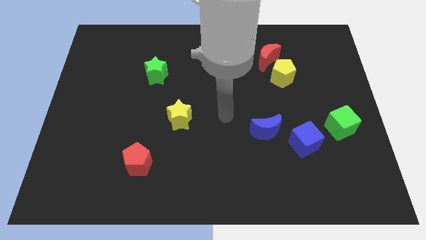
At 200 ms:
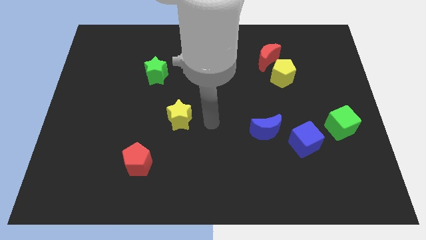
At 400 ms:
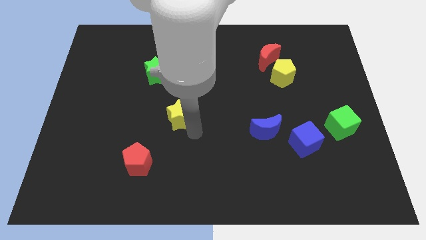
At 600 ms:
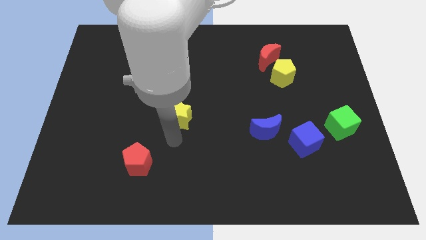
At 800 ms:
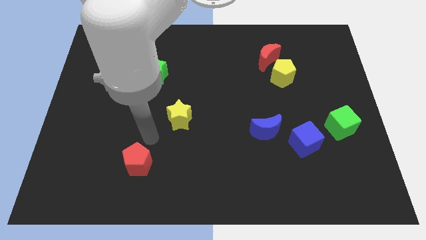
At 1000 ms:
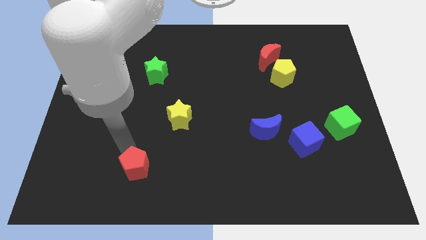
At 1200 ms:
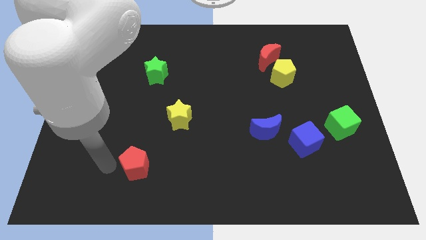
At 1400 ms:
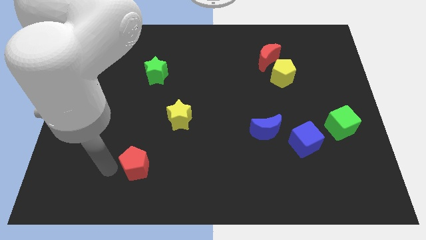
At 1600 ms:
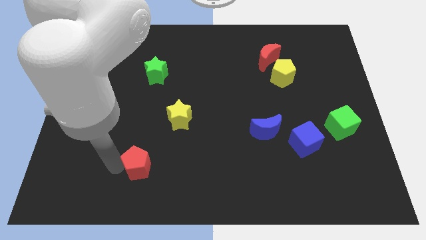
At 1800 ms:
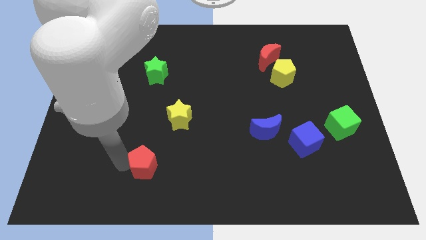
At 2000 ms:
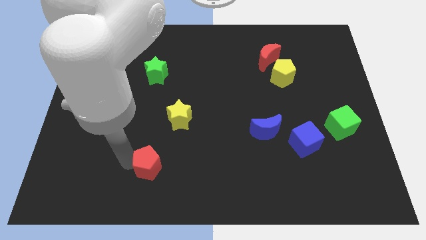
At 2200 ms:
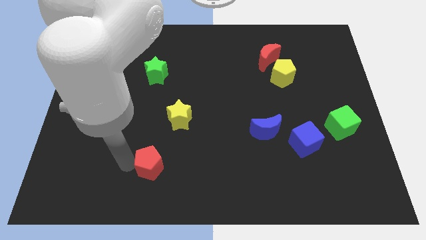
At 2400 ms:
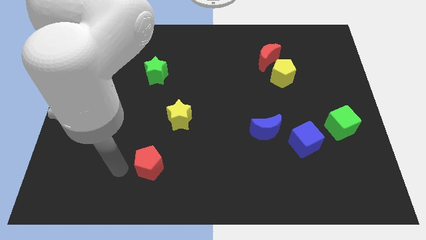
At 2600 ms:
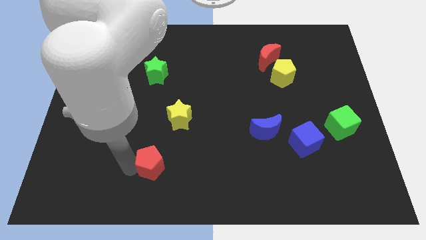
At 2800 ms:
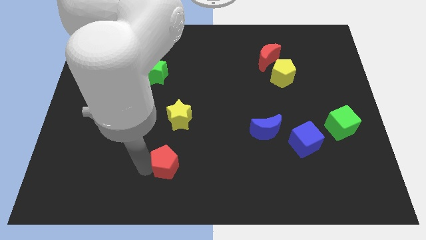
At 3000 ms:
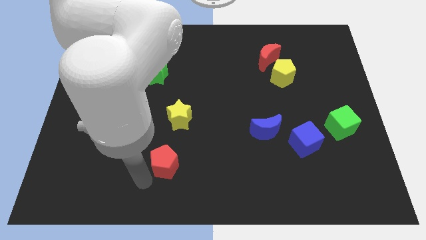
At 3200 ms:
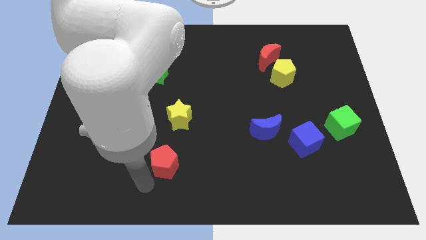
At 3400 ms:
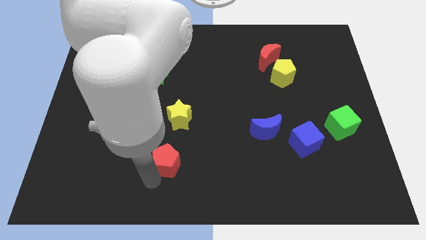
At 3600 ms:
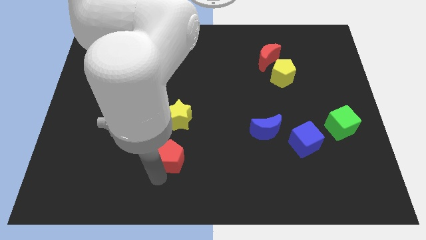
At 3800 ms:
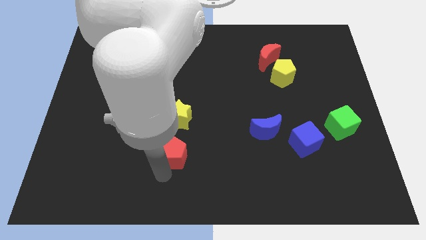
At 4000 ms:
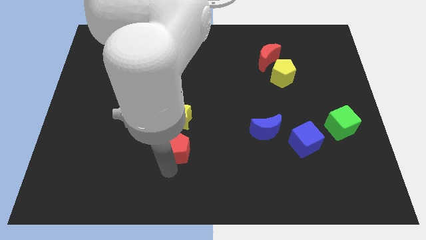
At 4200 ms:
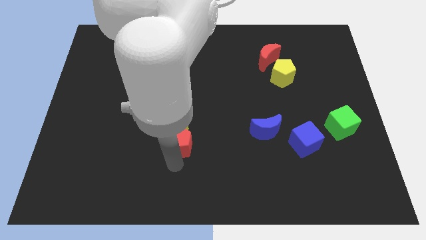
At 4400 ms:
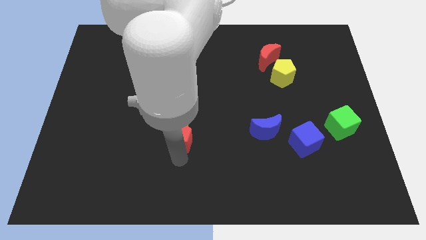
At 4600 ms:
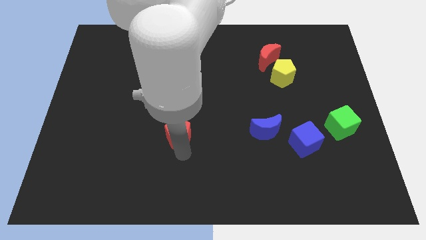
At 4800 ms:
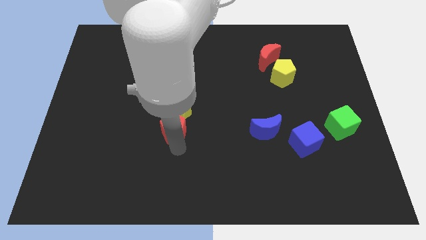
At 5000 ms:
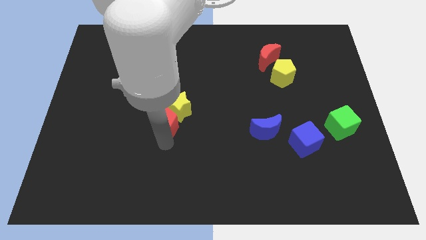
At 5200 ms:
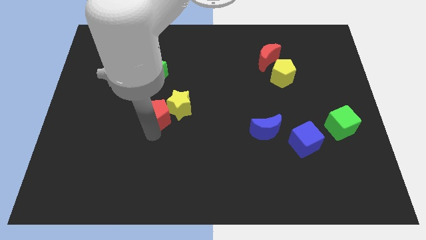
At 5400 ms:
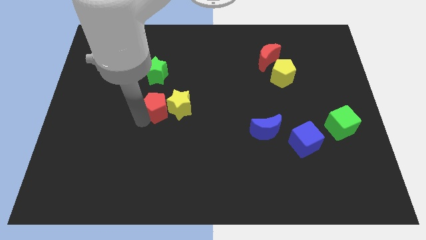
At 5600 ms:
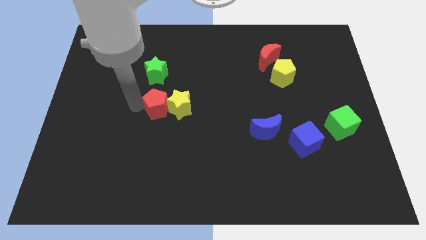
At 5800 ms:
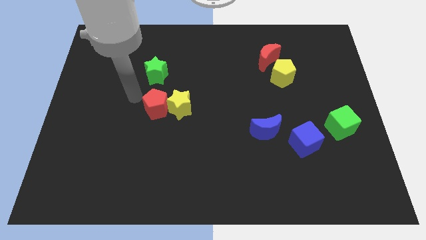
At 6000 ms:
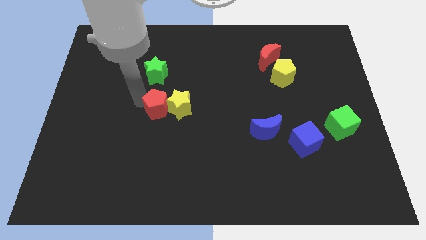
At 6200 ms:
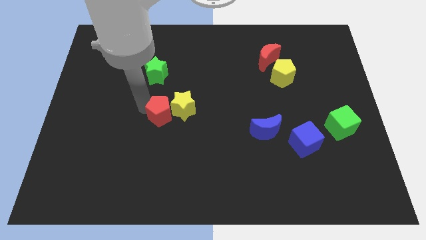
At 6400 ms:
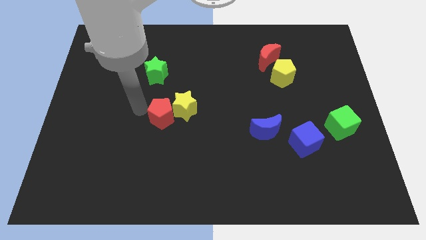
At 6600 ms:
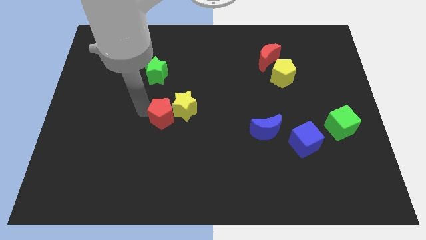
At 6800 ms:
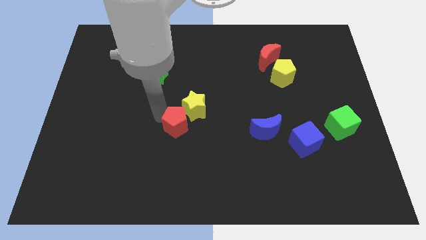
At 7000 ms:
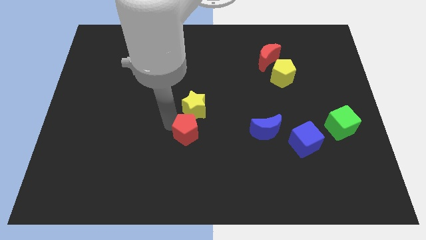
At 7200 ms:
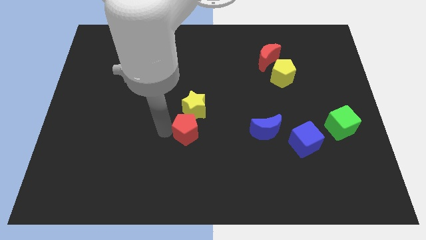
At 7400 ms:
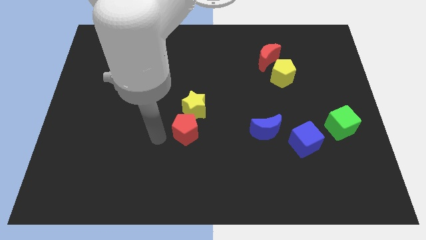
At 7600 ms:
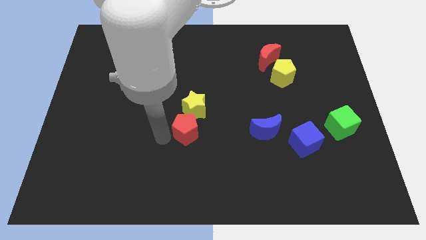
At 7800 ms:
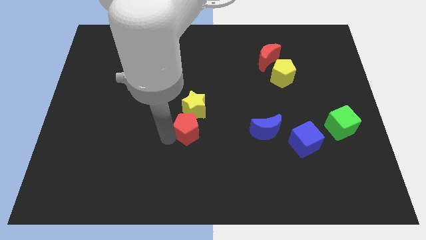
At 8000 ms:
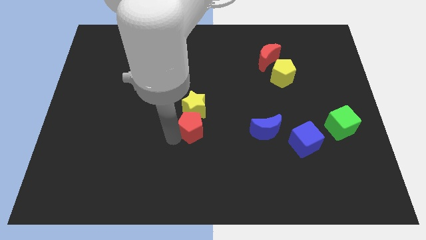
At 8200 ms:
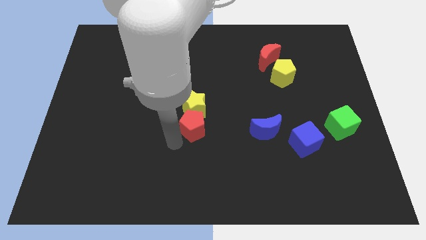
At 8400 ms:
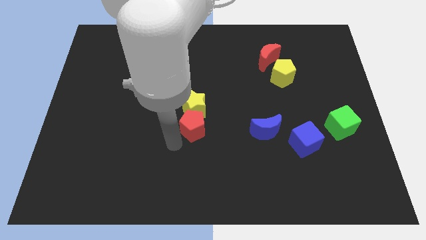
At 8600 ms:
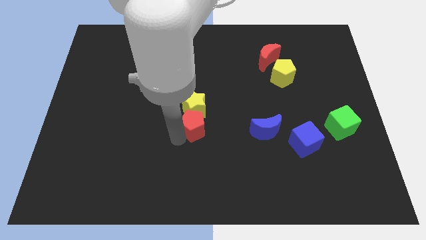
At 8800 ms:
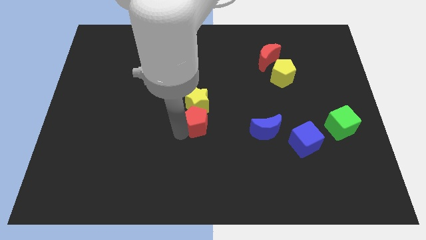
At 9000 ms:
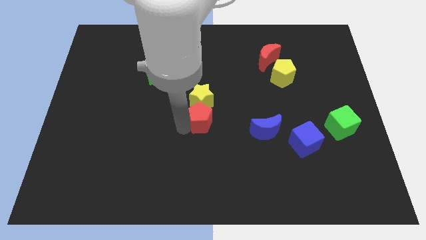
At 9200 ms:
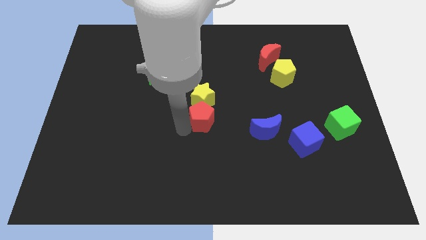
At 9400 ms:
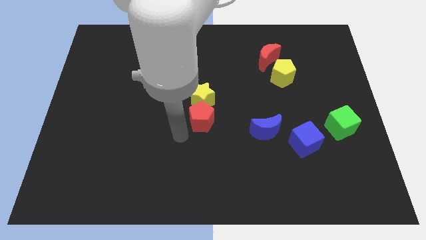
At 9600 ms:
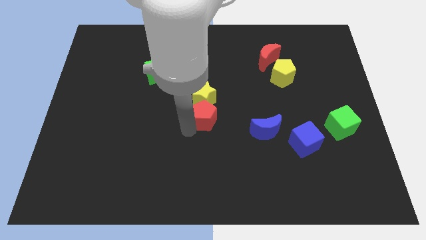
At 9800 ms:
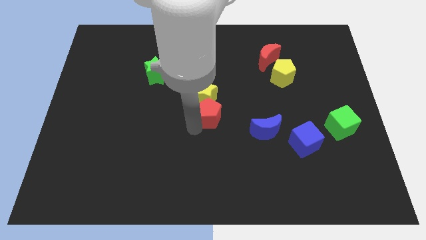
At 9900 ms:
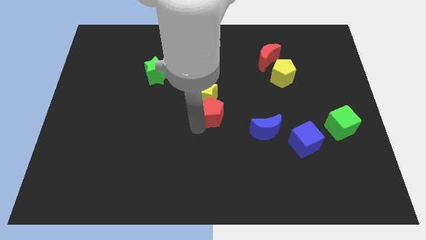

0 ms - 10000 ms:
move the red pentagon diagonally upwards and right

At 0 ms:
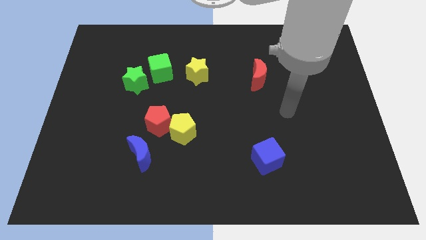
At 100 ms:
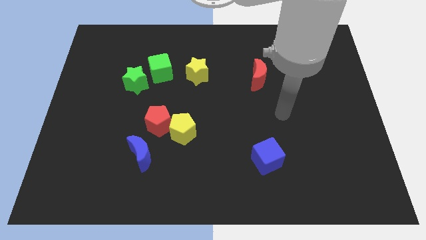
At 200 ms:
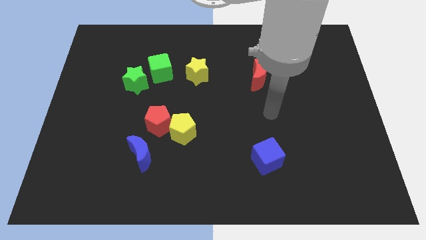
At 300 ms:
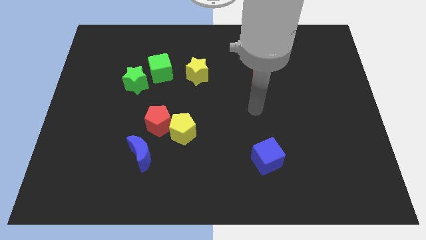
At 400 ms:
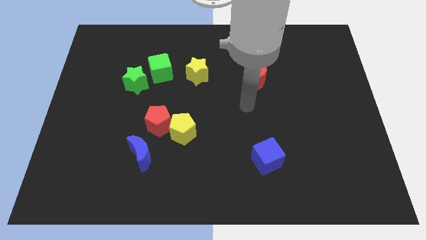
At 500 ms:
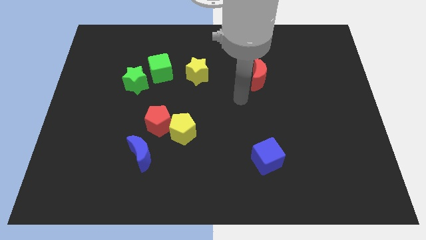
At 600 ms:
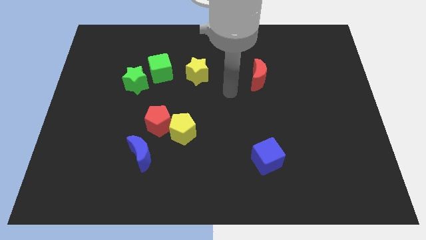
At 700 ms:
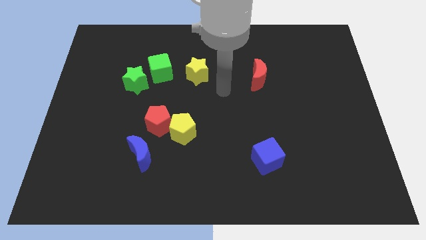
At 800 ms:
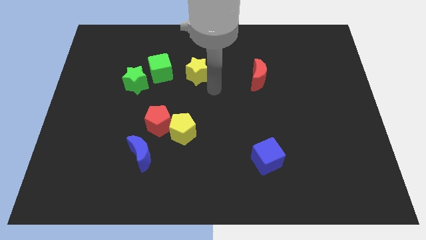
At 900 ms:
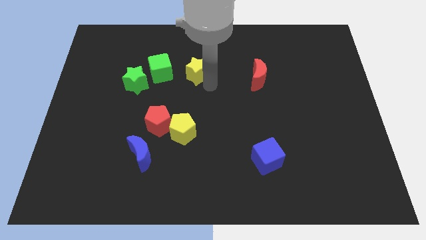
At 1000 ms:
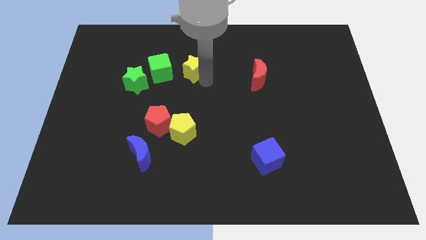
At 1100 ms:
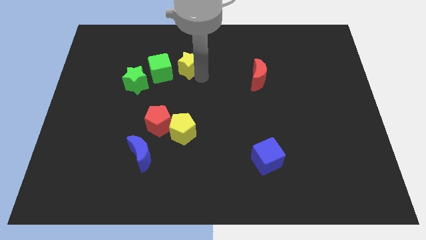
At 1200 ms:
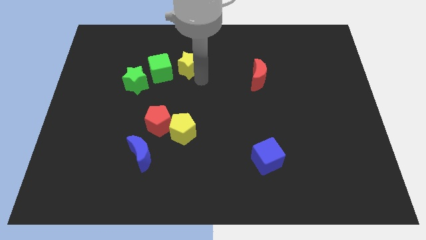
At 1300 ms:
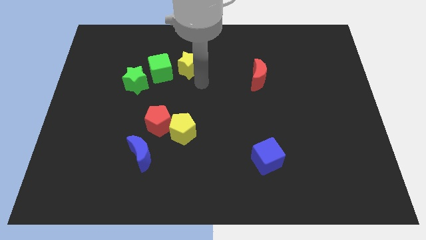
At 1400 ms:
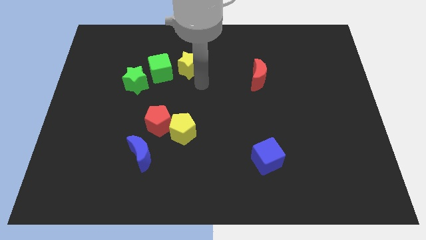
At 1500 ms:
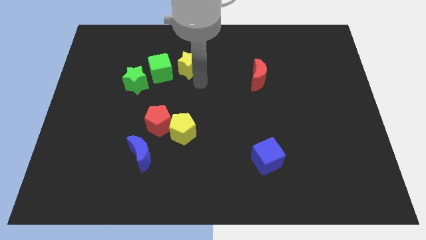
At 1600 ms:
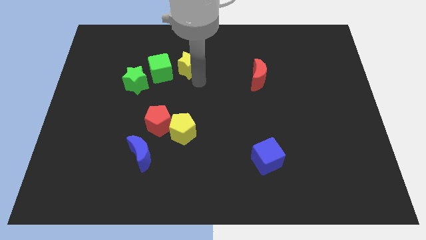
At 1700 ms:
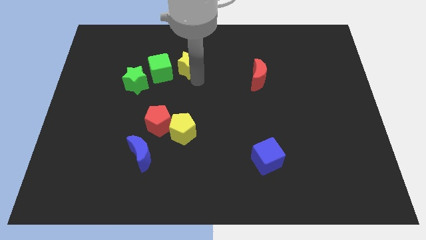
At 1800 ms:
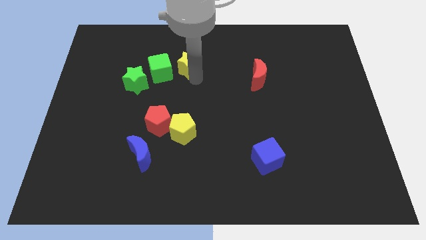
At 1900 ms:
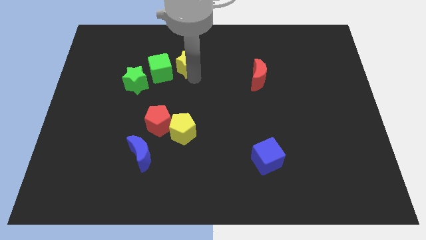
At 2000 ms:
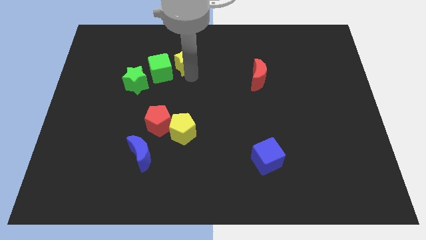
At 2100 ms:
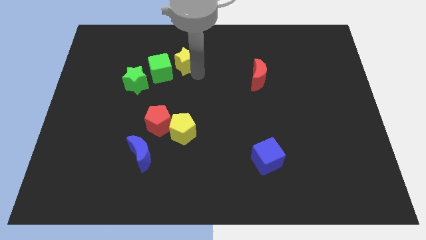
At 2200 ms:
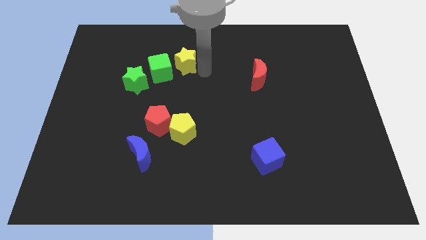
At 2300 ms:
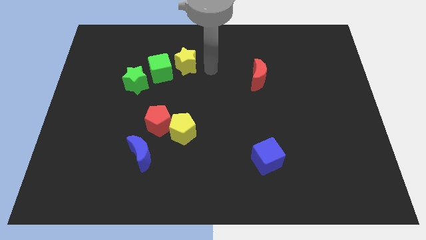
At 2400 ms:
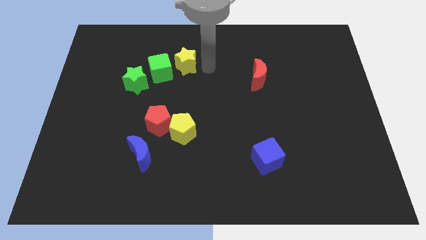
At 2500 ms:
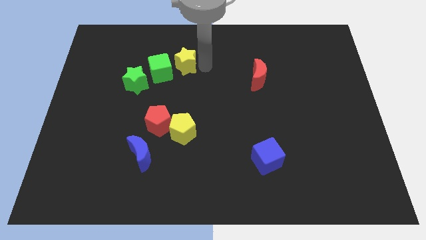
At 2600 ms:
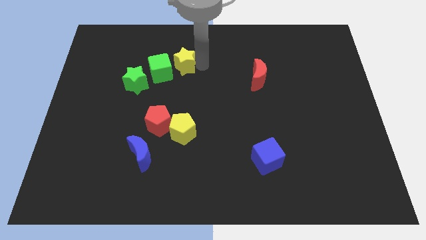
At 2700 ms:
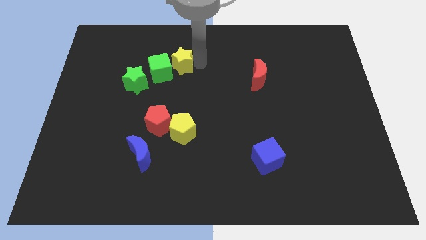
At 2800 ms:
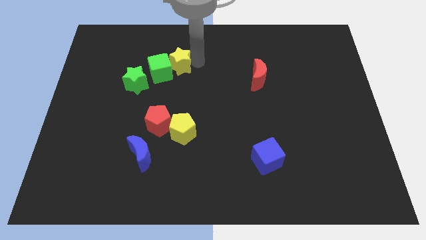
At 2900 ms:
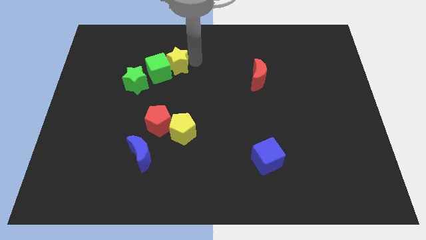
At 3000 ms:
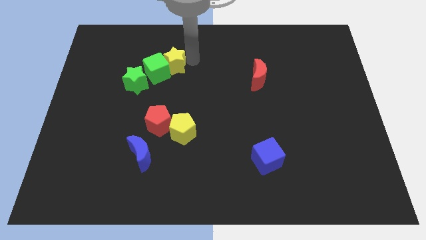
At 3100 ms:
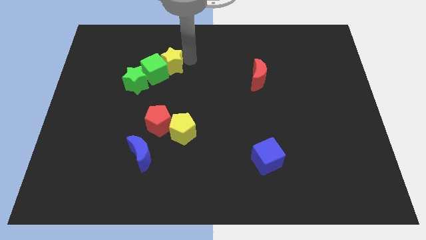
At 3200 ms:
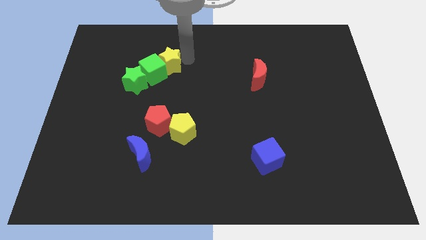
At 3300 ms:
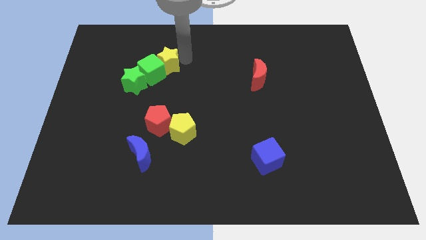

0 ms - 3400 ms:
slide the yellow star to the left somewhat
